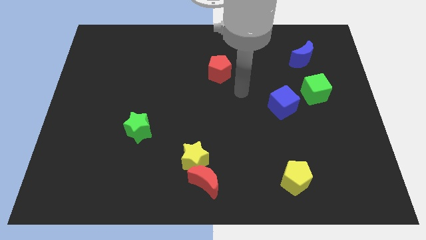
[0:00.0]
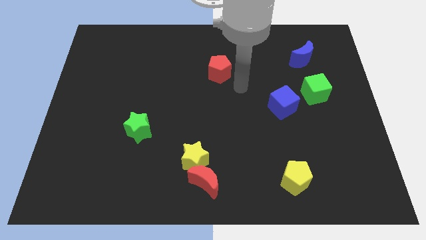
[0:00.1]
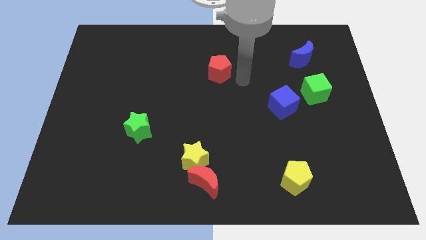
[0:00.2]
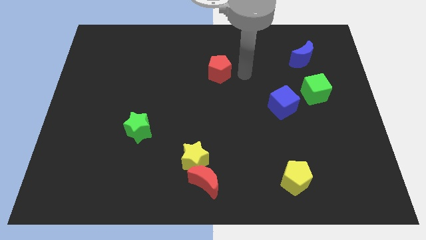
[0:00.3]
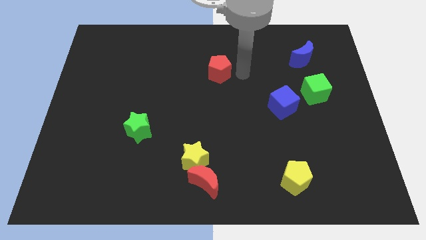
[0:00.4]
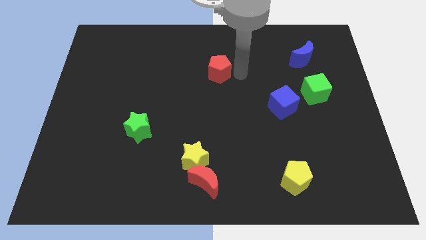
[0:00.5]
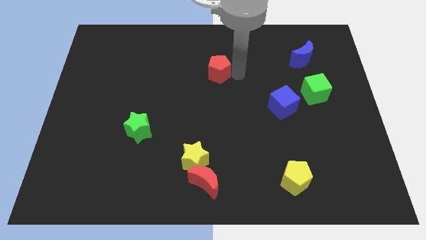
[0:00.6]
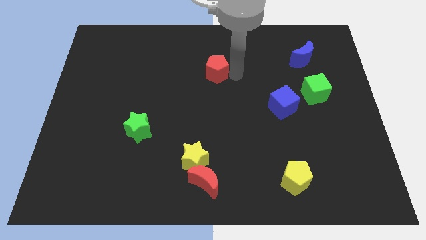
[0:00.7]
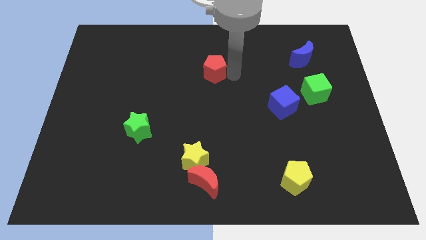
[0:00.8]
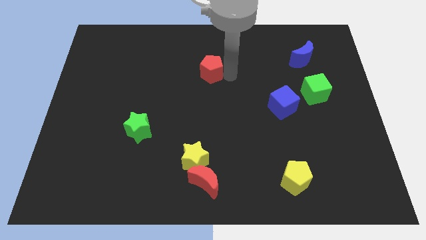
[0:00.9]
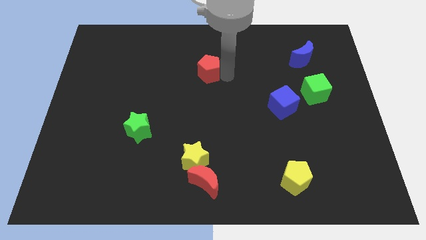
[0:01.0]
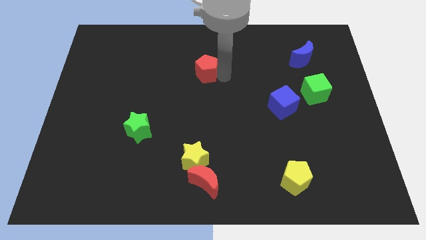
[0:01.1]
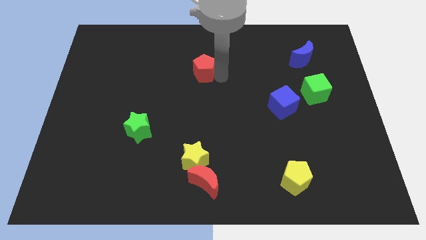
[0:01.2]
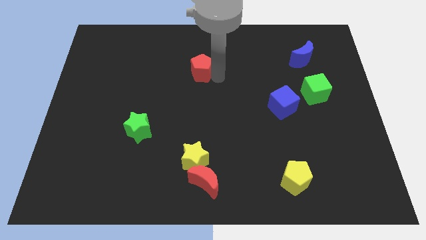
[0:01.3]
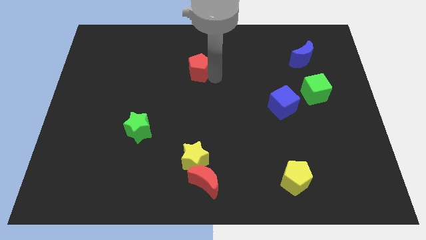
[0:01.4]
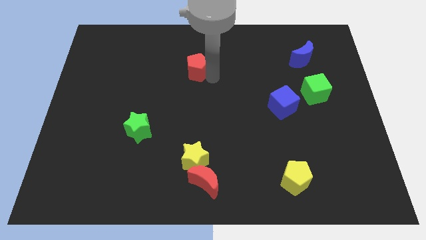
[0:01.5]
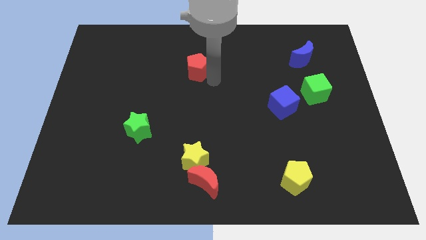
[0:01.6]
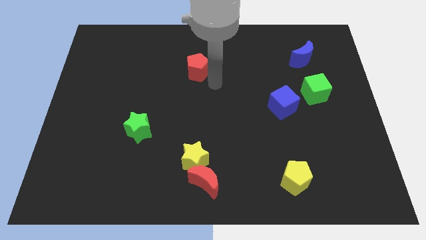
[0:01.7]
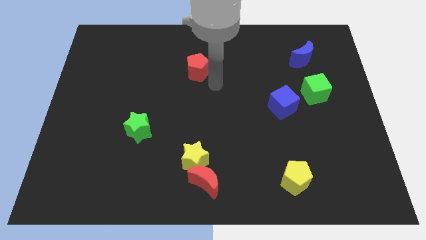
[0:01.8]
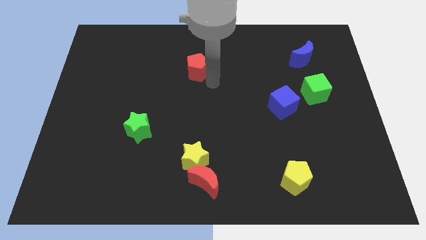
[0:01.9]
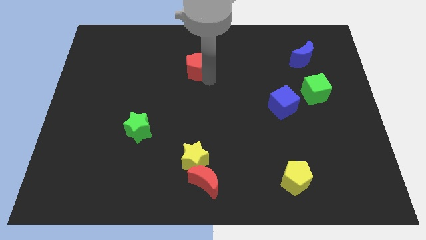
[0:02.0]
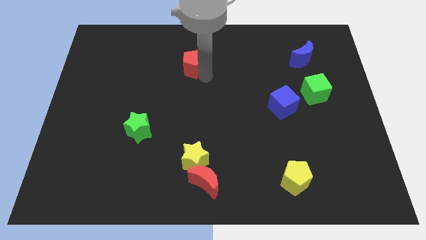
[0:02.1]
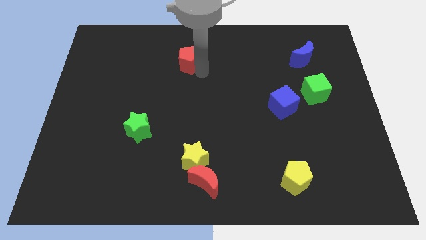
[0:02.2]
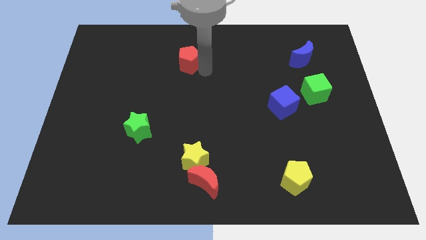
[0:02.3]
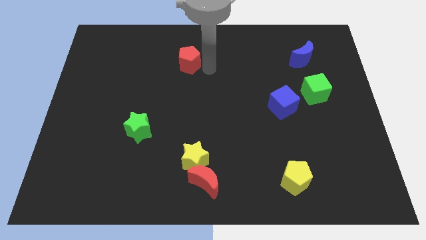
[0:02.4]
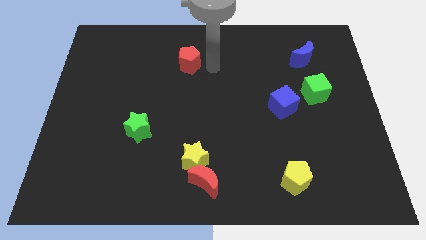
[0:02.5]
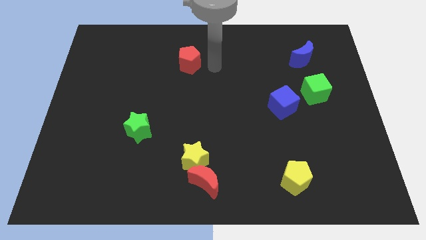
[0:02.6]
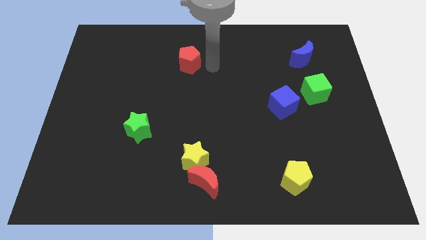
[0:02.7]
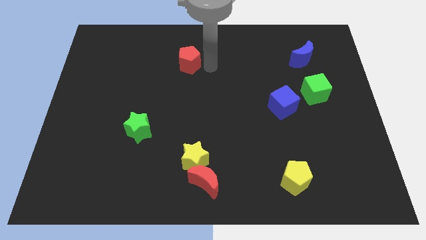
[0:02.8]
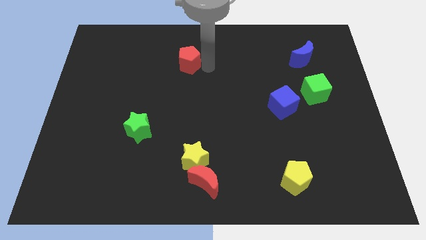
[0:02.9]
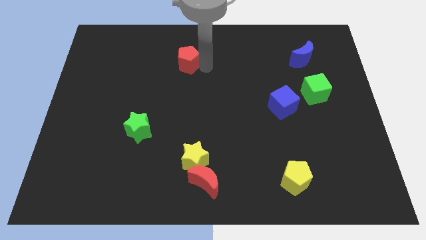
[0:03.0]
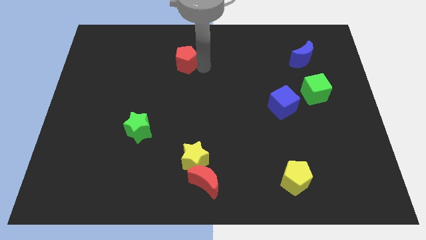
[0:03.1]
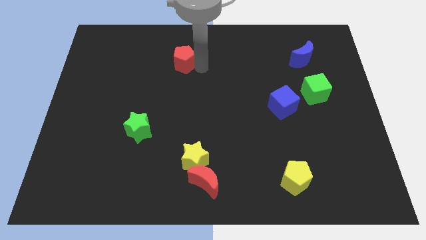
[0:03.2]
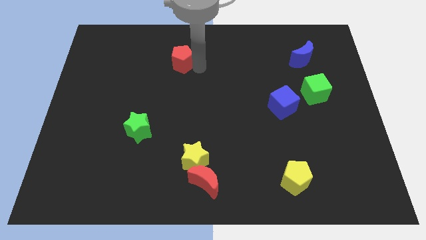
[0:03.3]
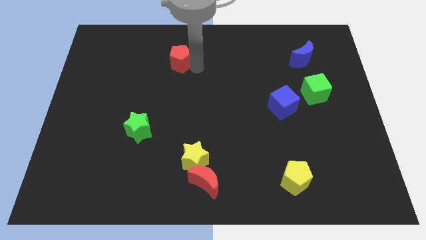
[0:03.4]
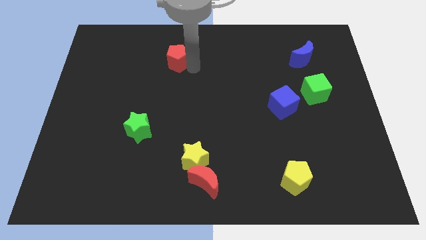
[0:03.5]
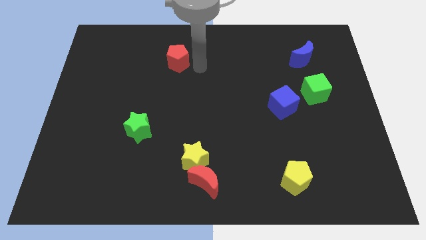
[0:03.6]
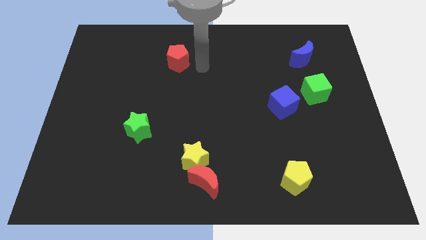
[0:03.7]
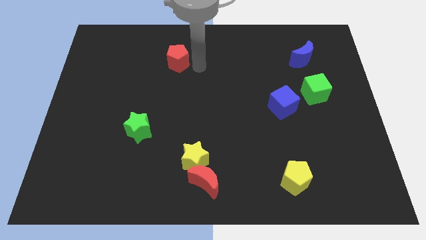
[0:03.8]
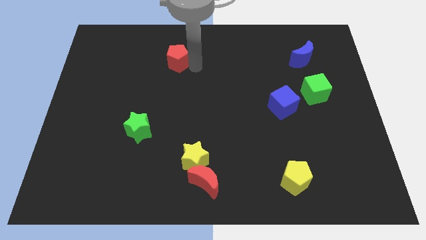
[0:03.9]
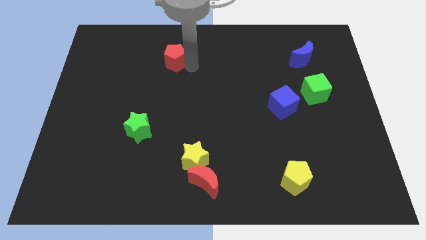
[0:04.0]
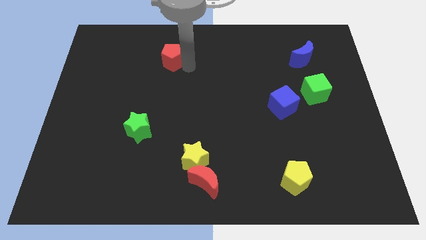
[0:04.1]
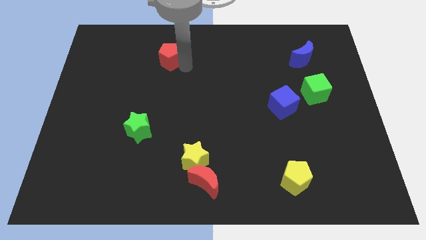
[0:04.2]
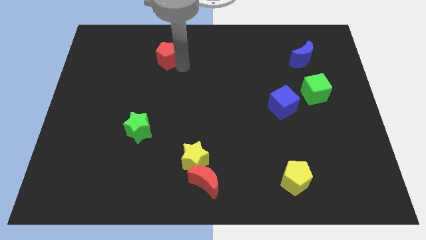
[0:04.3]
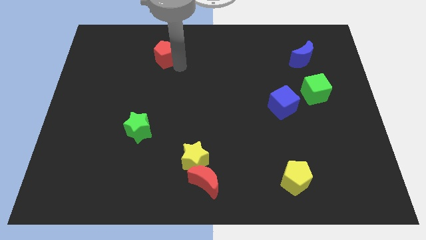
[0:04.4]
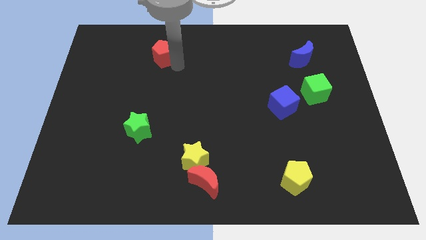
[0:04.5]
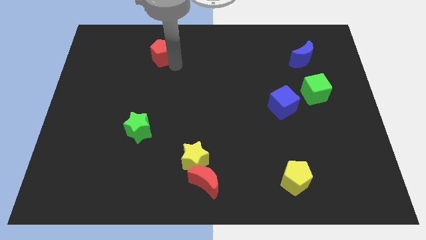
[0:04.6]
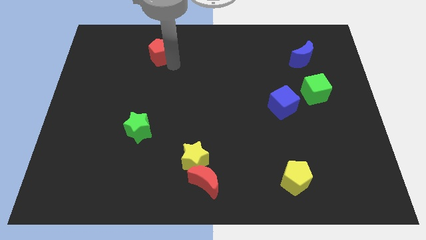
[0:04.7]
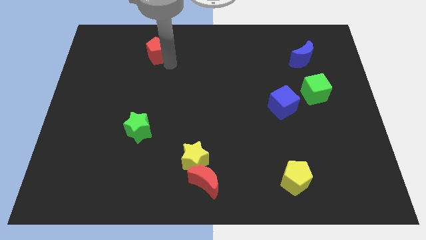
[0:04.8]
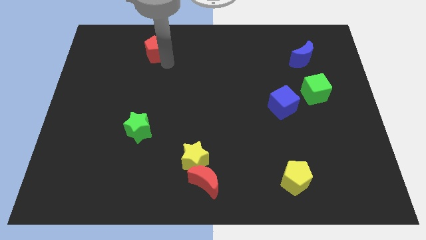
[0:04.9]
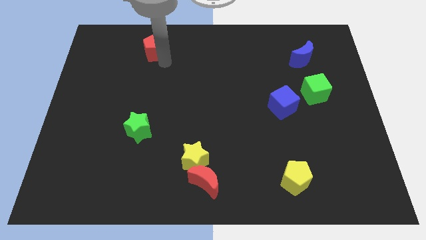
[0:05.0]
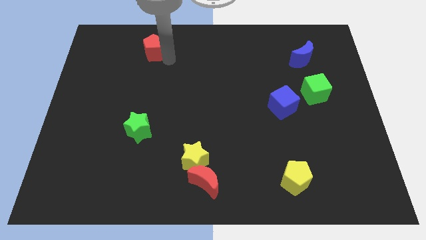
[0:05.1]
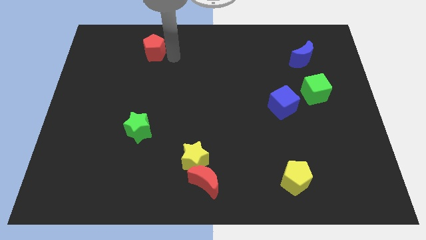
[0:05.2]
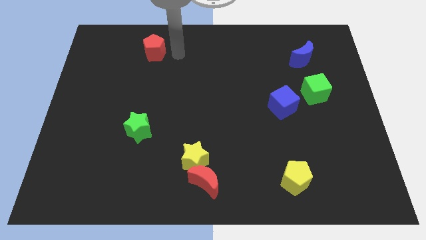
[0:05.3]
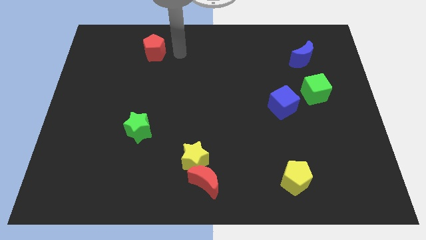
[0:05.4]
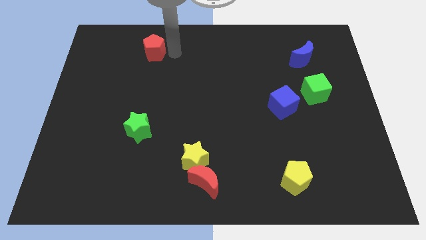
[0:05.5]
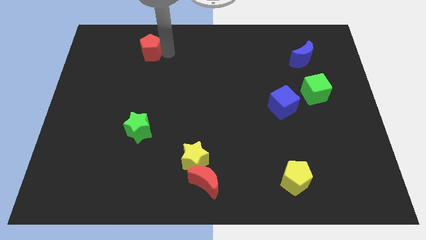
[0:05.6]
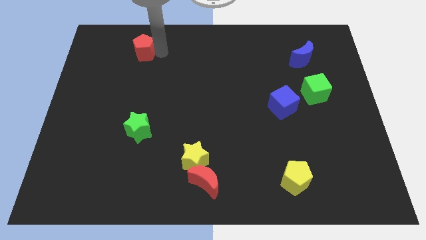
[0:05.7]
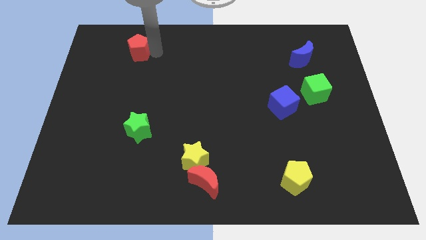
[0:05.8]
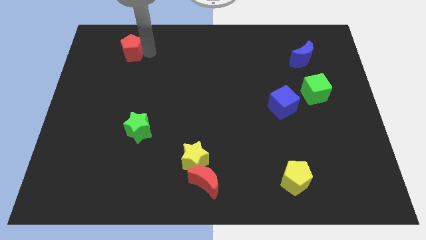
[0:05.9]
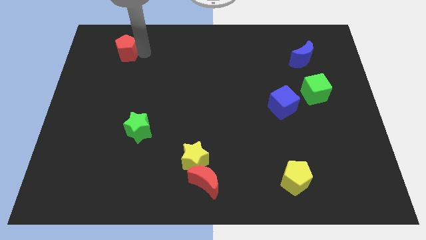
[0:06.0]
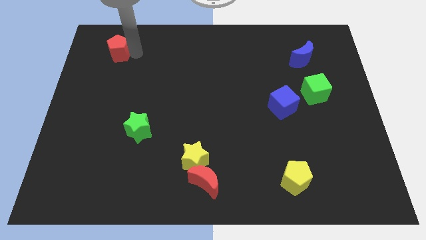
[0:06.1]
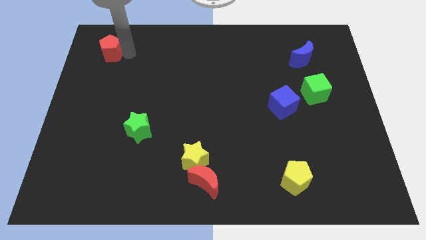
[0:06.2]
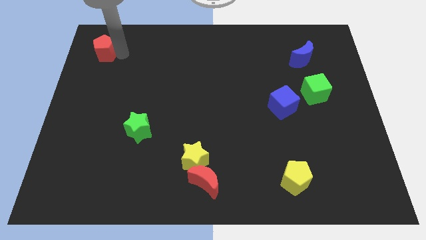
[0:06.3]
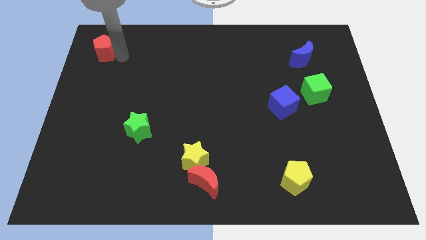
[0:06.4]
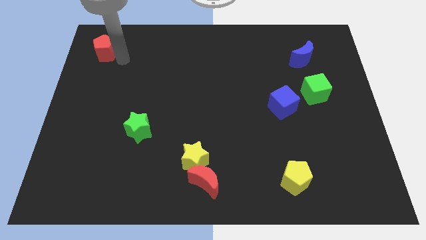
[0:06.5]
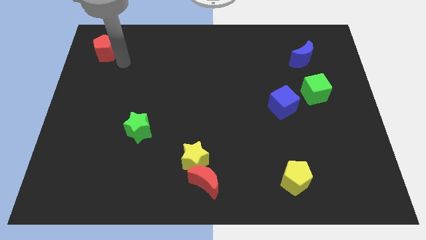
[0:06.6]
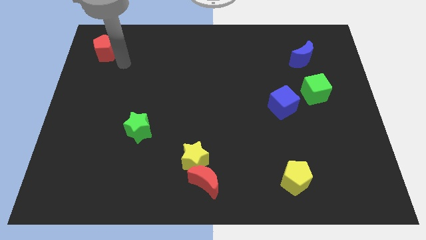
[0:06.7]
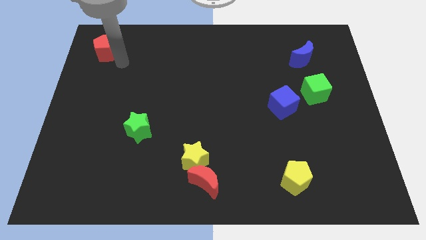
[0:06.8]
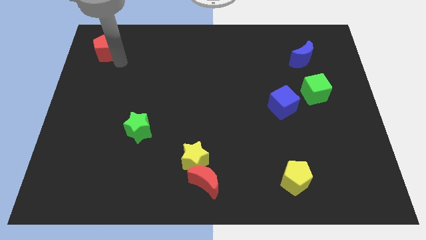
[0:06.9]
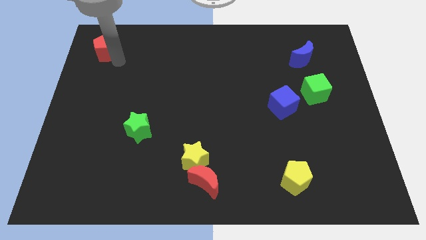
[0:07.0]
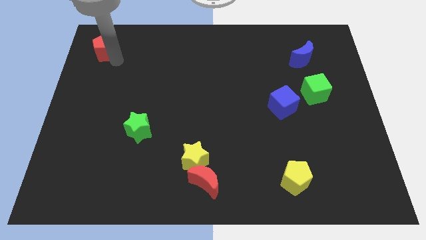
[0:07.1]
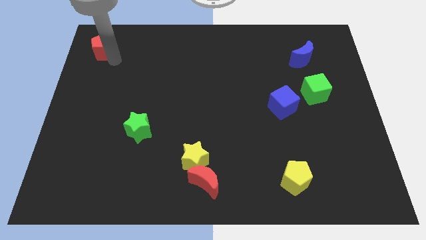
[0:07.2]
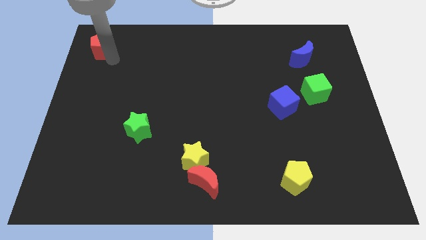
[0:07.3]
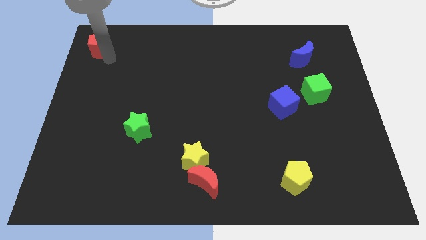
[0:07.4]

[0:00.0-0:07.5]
put the red pentagon to the top left
